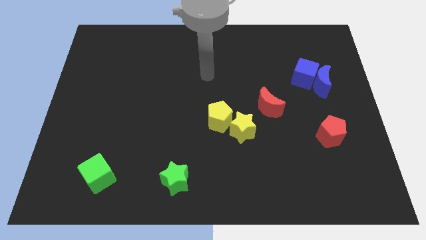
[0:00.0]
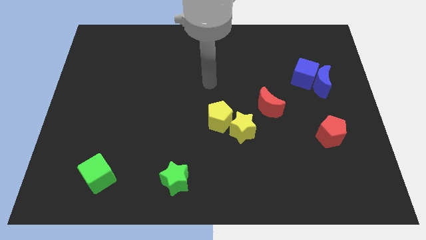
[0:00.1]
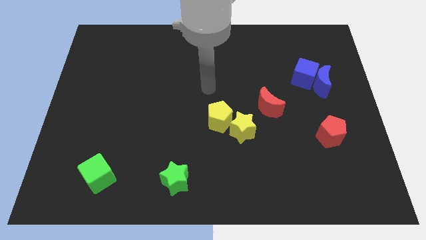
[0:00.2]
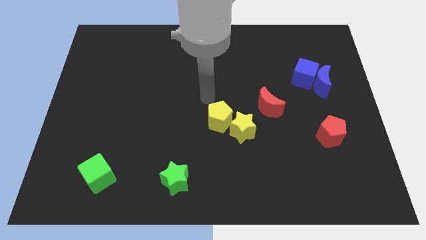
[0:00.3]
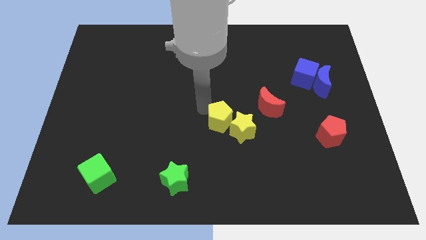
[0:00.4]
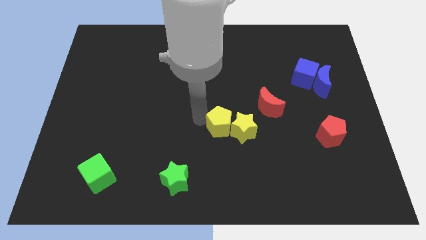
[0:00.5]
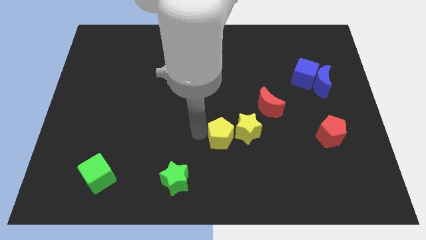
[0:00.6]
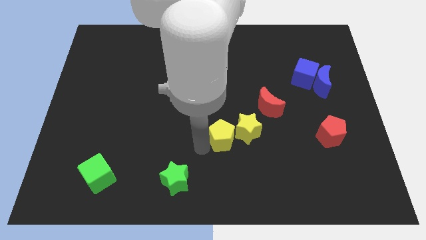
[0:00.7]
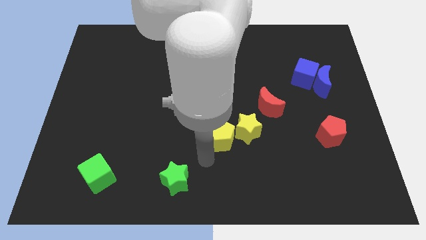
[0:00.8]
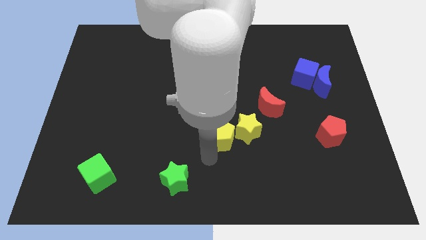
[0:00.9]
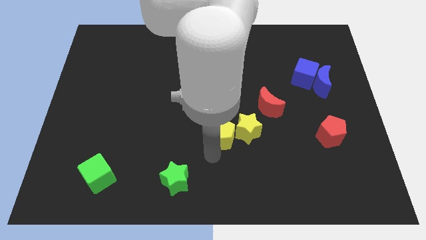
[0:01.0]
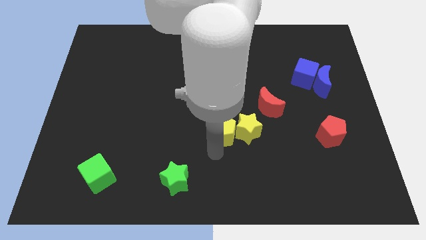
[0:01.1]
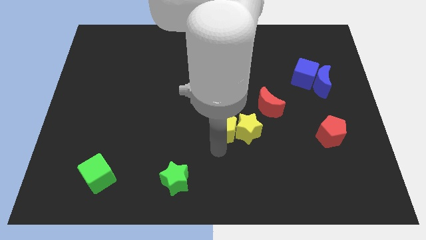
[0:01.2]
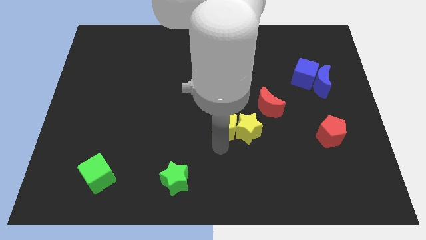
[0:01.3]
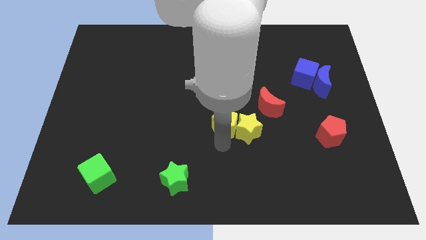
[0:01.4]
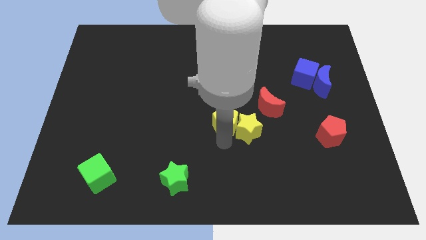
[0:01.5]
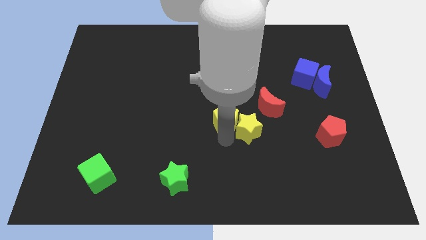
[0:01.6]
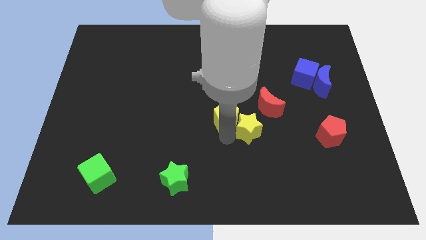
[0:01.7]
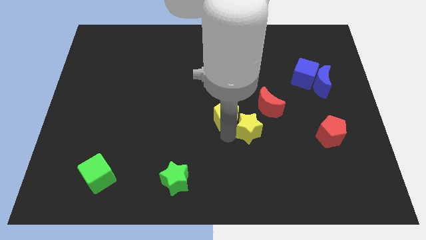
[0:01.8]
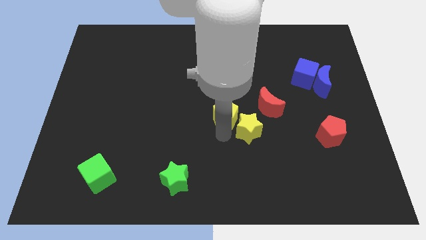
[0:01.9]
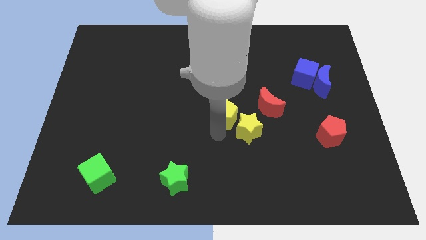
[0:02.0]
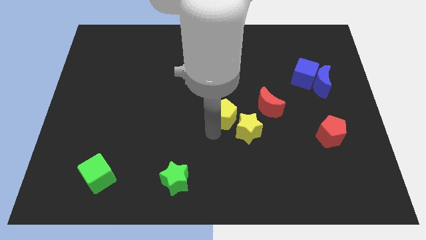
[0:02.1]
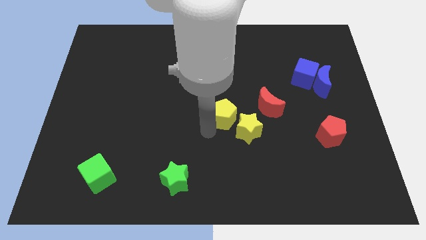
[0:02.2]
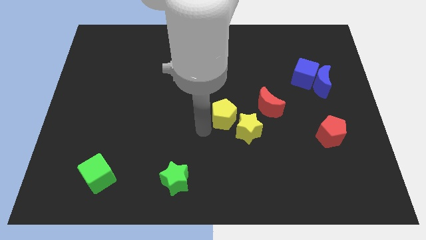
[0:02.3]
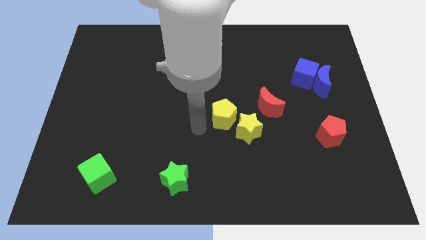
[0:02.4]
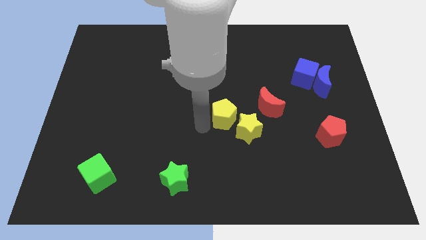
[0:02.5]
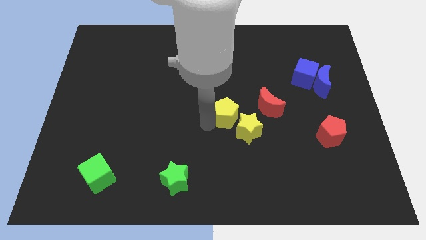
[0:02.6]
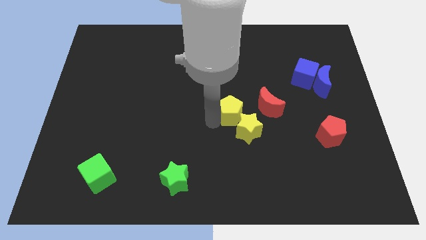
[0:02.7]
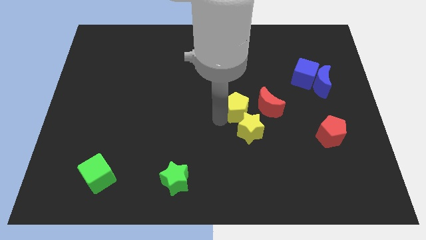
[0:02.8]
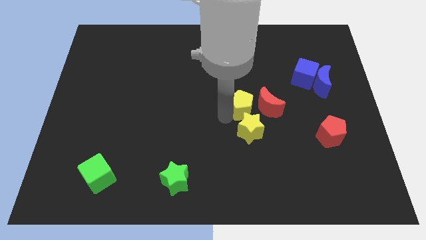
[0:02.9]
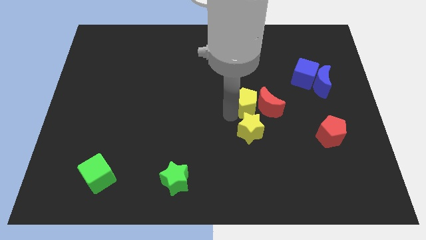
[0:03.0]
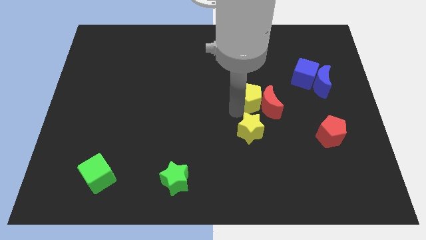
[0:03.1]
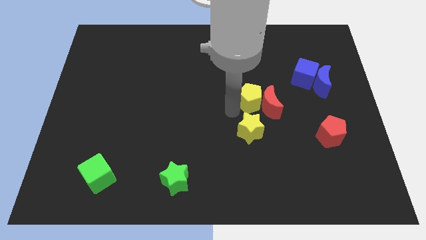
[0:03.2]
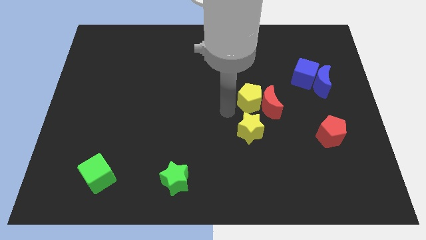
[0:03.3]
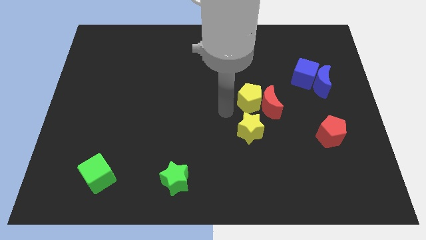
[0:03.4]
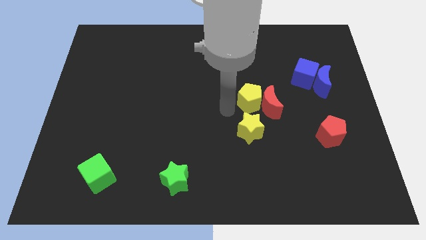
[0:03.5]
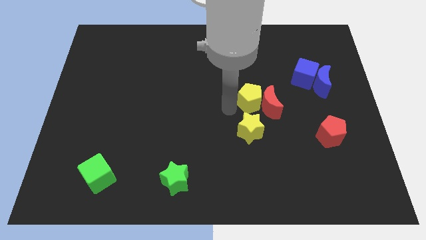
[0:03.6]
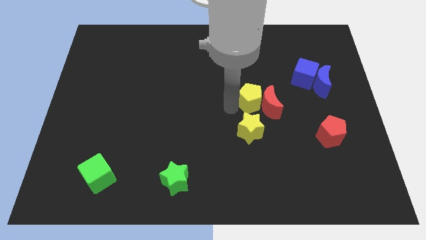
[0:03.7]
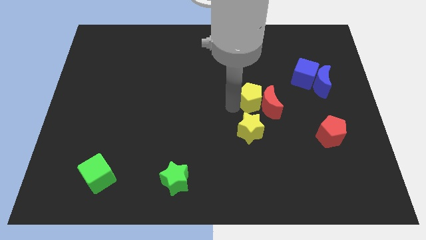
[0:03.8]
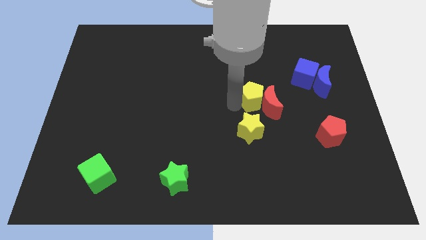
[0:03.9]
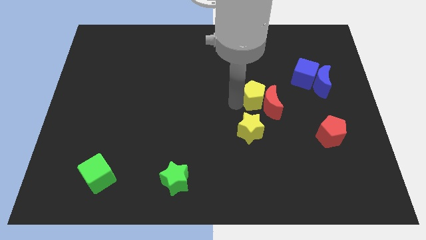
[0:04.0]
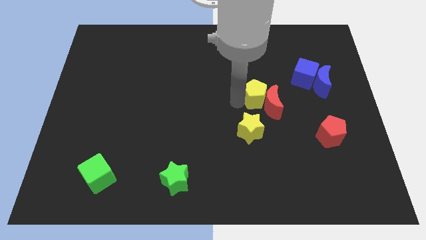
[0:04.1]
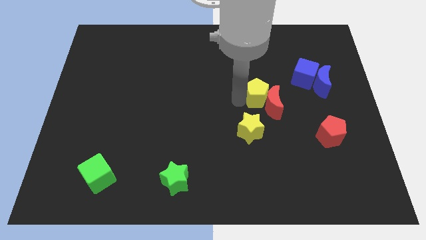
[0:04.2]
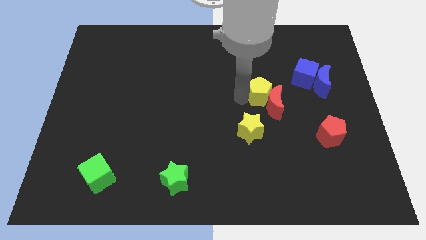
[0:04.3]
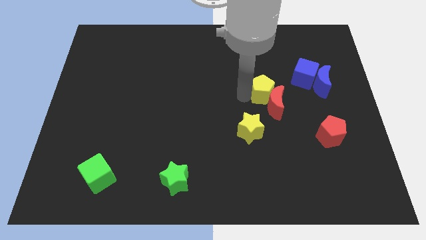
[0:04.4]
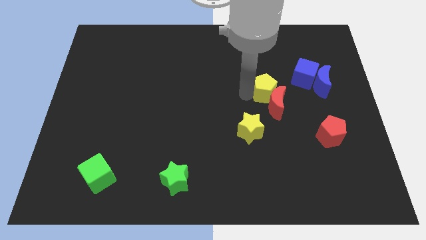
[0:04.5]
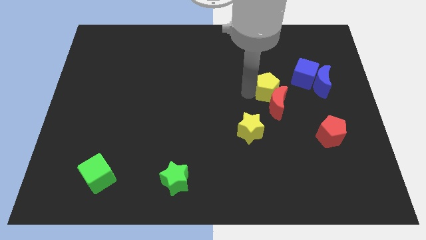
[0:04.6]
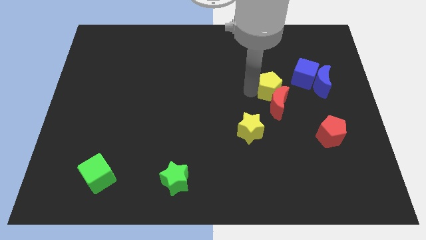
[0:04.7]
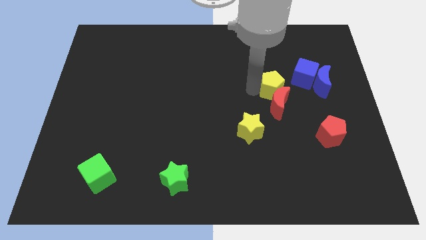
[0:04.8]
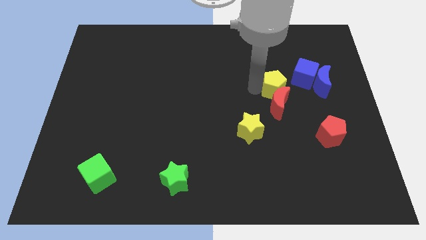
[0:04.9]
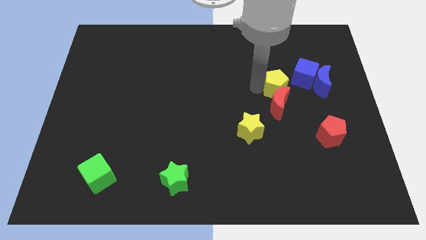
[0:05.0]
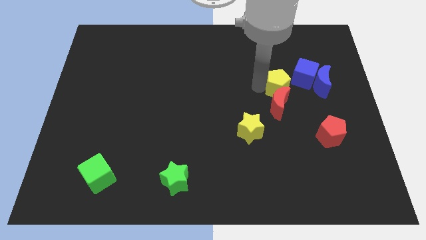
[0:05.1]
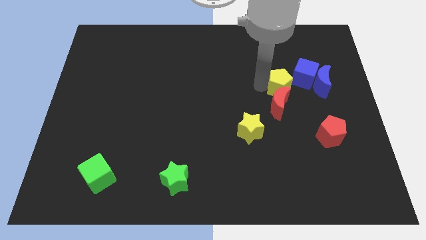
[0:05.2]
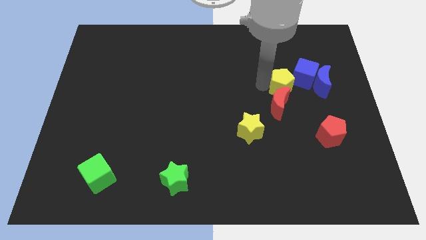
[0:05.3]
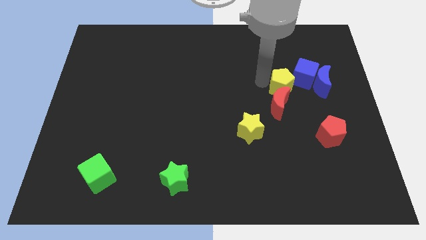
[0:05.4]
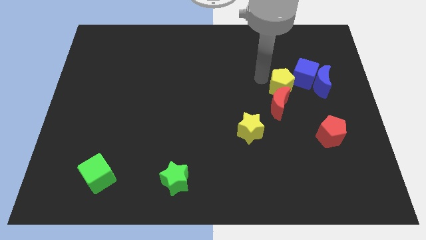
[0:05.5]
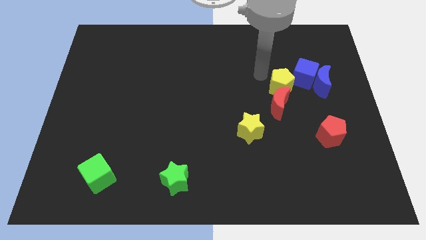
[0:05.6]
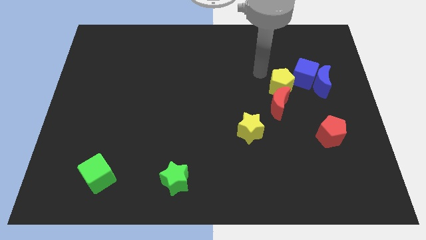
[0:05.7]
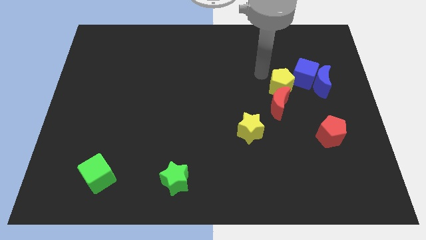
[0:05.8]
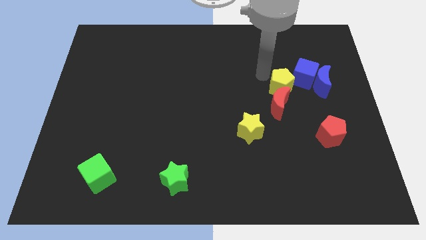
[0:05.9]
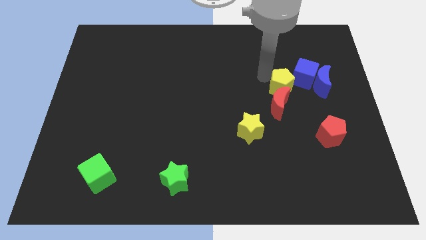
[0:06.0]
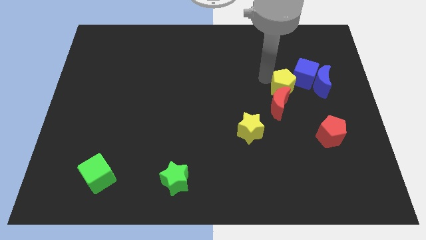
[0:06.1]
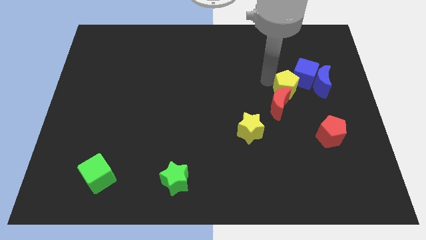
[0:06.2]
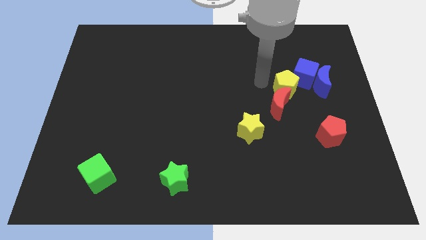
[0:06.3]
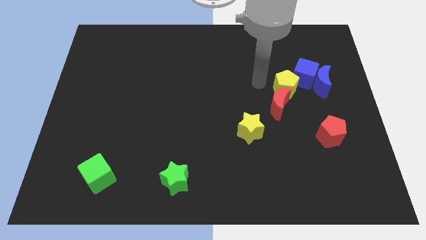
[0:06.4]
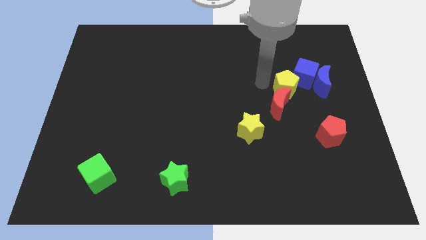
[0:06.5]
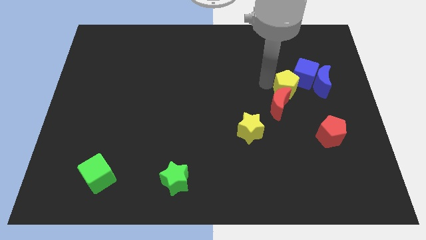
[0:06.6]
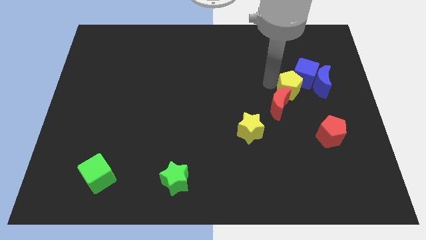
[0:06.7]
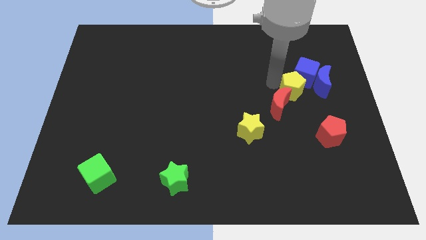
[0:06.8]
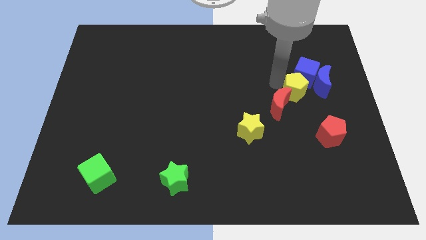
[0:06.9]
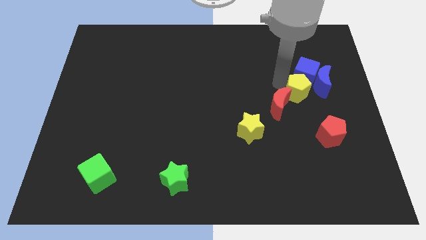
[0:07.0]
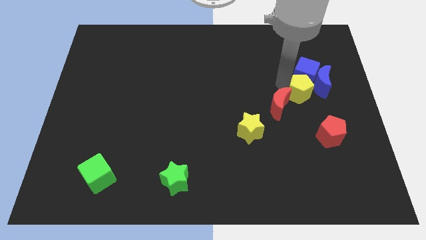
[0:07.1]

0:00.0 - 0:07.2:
move the yellow pentagon next to the blue moon

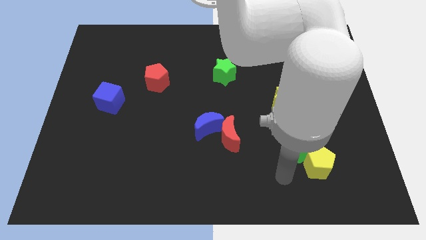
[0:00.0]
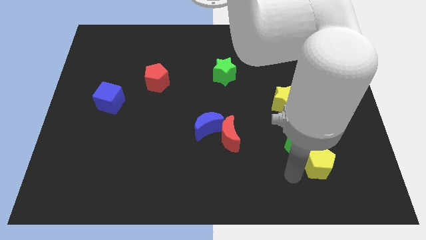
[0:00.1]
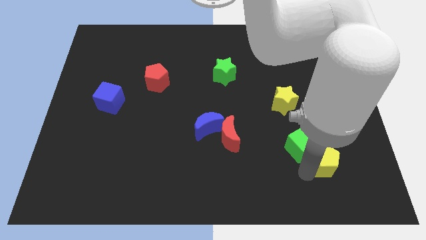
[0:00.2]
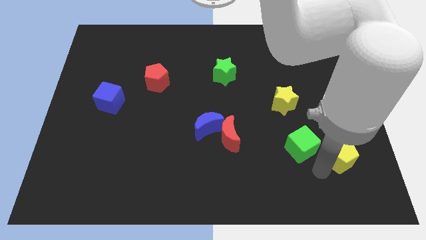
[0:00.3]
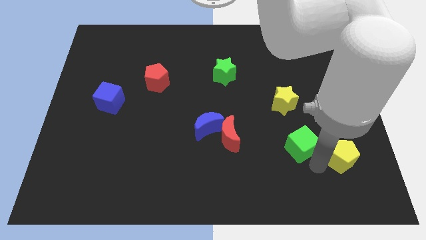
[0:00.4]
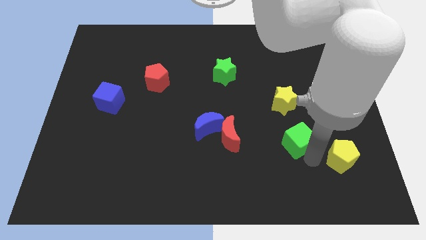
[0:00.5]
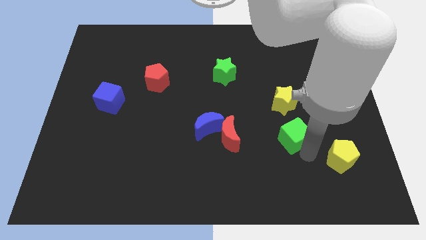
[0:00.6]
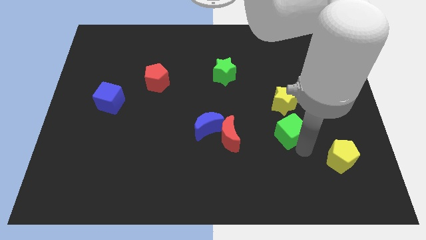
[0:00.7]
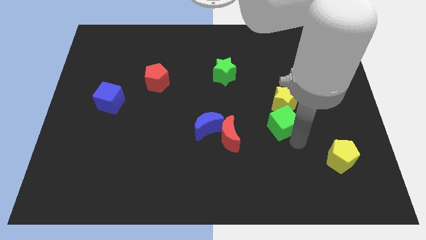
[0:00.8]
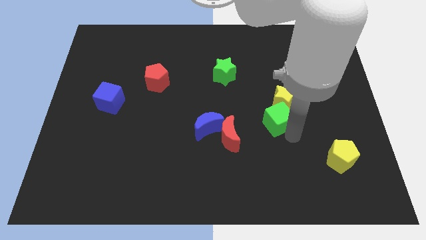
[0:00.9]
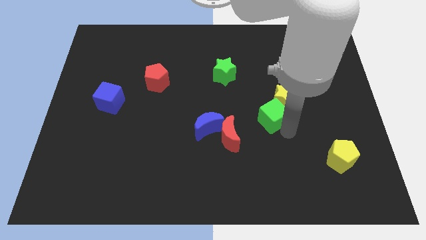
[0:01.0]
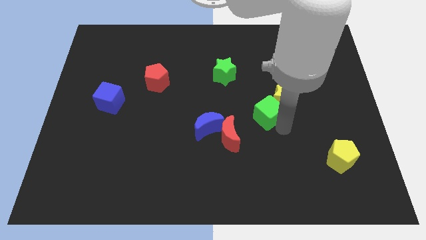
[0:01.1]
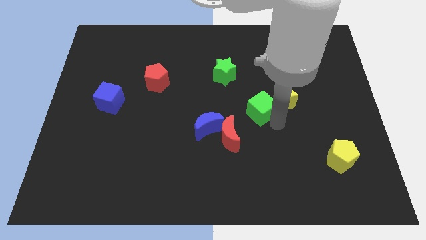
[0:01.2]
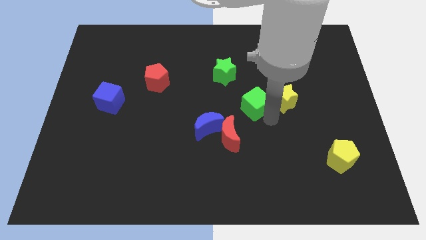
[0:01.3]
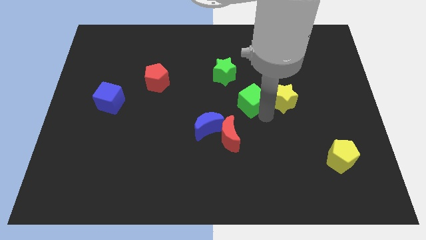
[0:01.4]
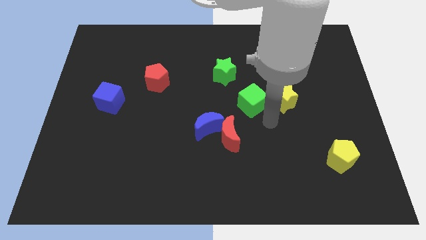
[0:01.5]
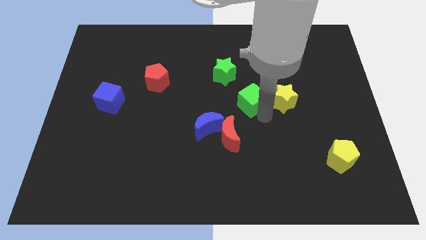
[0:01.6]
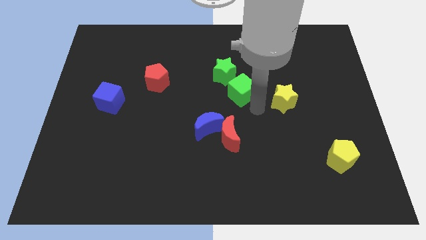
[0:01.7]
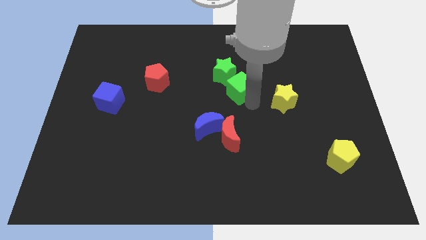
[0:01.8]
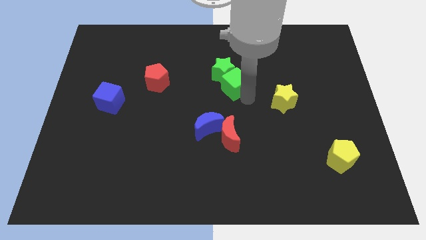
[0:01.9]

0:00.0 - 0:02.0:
slide the green cube towards the green star
